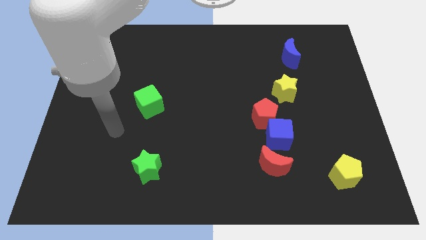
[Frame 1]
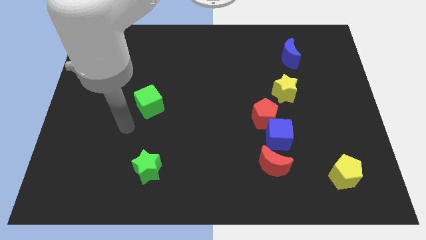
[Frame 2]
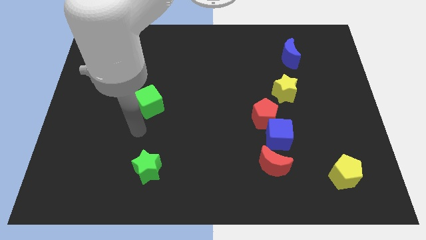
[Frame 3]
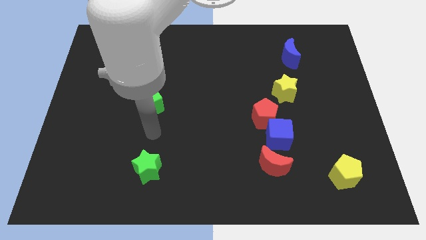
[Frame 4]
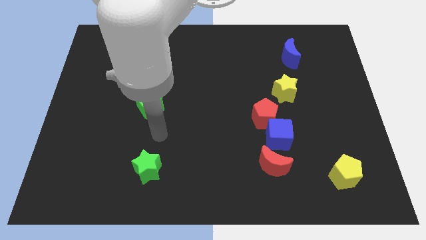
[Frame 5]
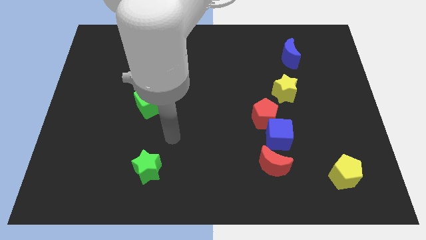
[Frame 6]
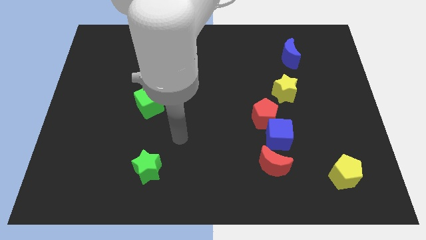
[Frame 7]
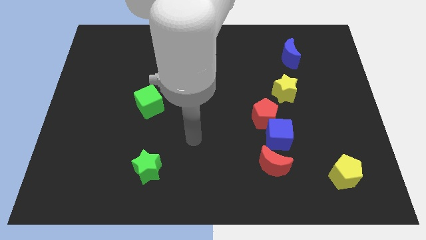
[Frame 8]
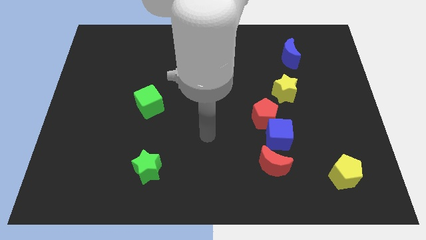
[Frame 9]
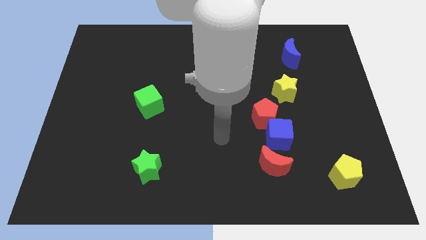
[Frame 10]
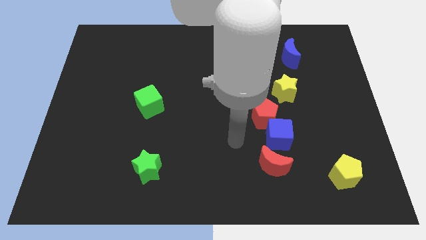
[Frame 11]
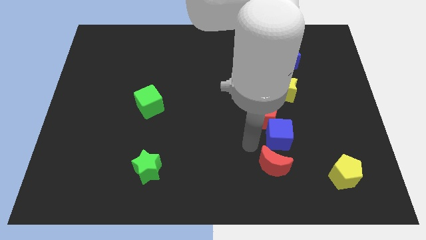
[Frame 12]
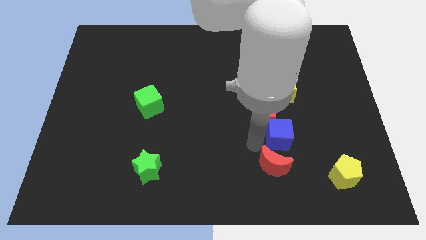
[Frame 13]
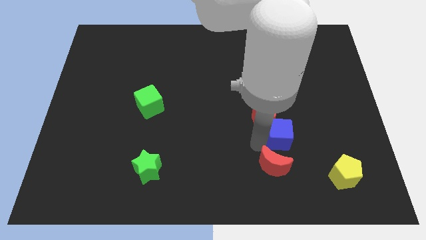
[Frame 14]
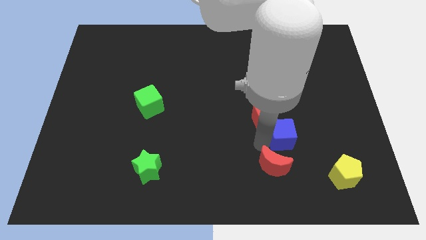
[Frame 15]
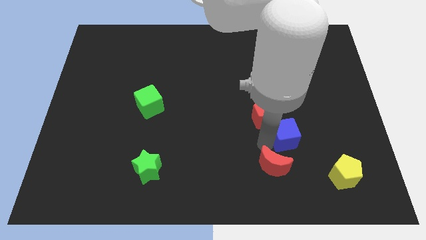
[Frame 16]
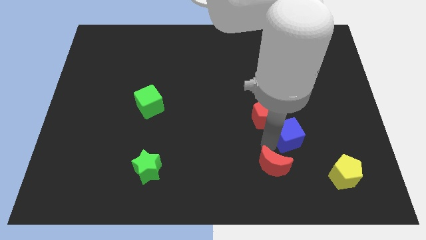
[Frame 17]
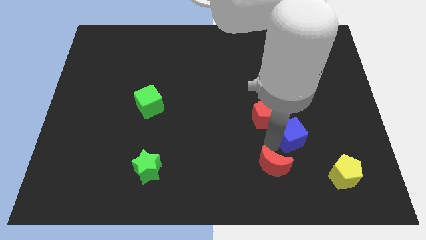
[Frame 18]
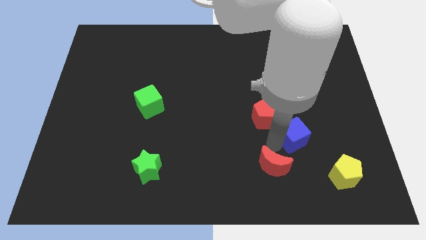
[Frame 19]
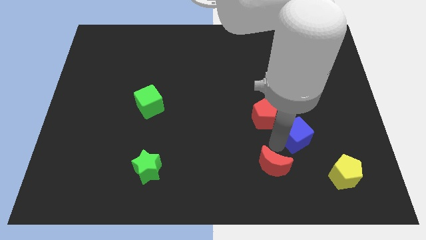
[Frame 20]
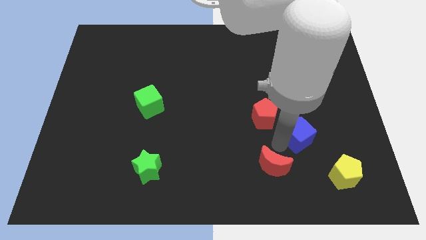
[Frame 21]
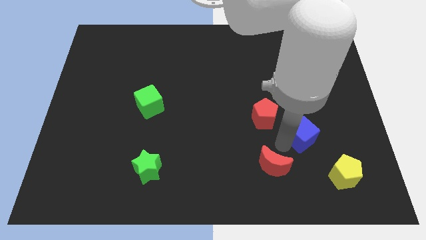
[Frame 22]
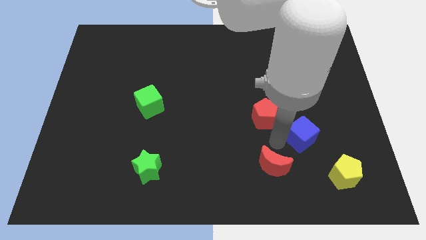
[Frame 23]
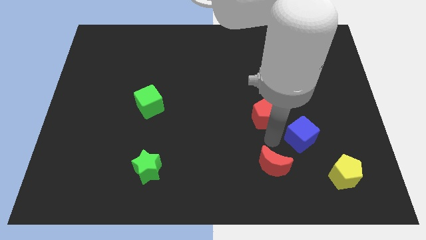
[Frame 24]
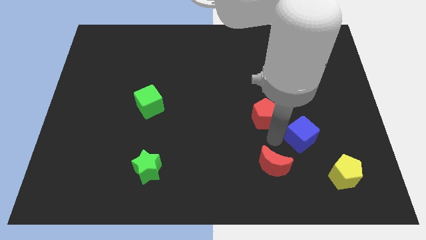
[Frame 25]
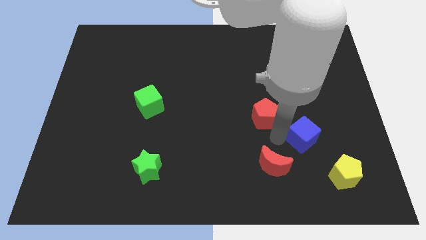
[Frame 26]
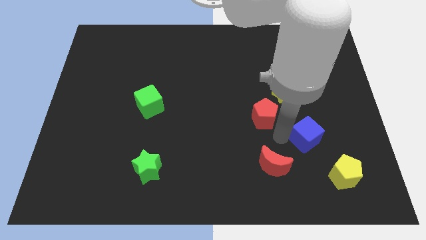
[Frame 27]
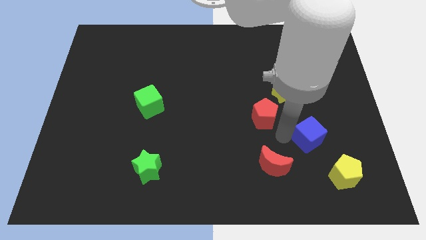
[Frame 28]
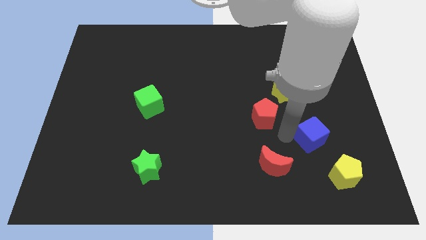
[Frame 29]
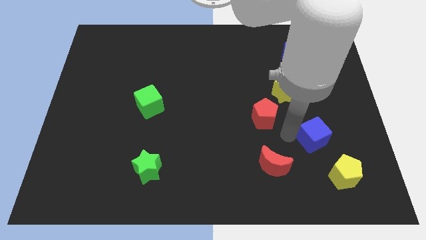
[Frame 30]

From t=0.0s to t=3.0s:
pull the blue cube apart from the red pentagon and red moon

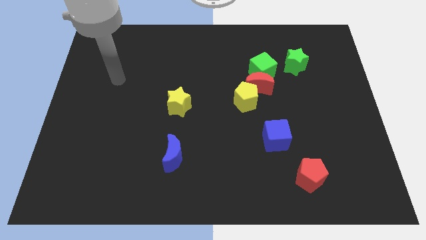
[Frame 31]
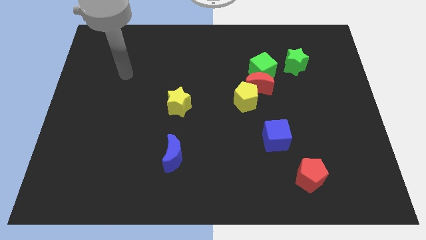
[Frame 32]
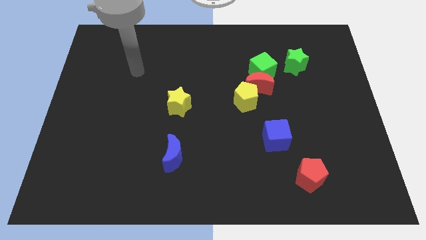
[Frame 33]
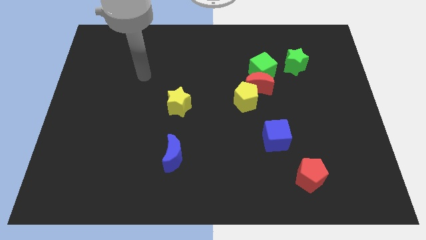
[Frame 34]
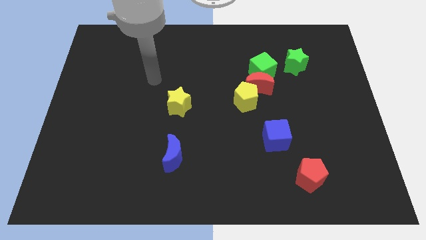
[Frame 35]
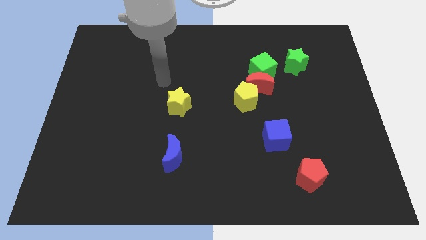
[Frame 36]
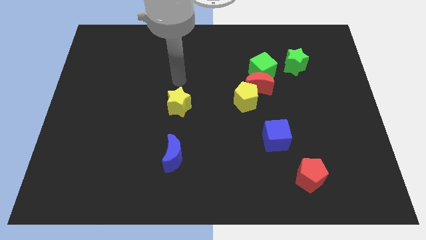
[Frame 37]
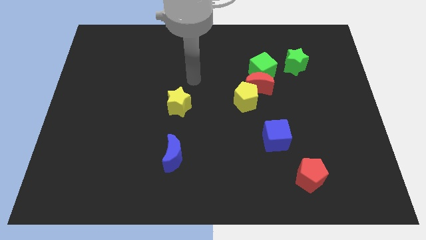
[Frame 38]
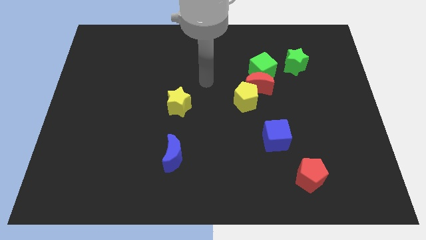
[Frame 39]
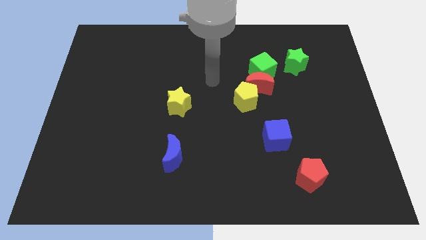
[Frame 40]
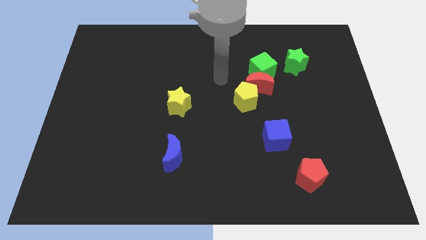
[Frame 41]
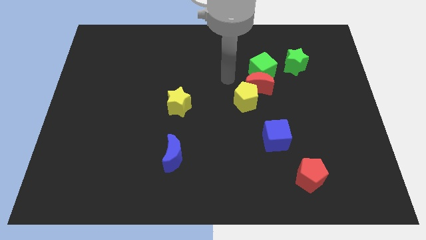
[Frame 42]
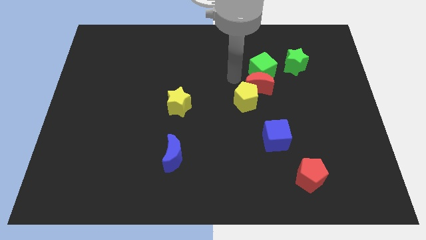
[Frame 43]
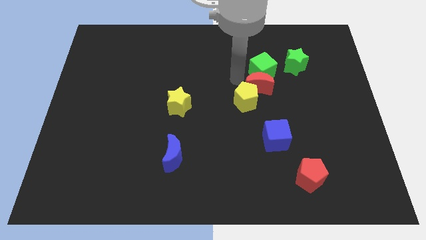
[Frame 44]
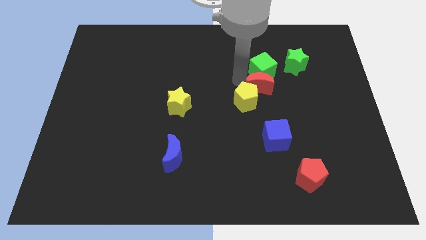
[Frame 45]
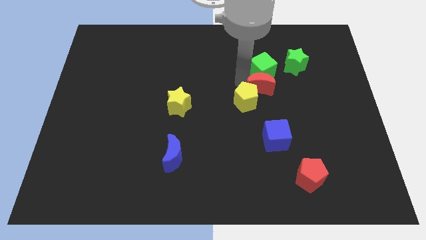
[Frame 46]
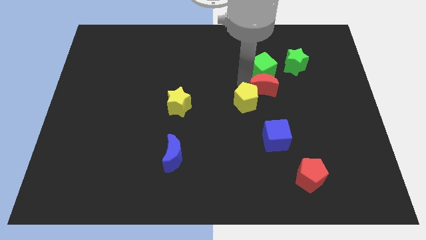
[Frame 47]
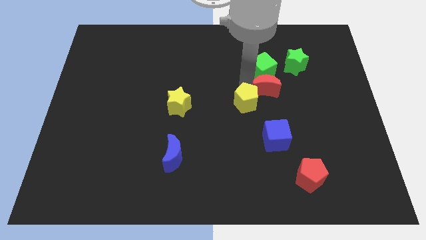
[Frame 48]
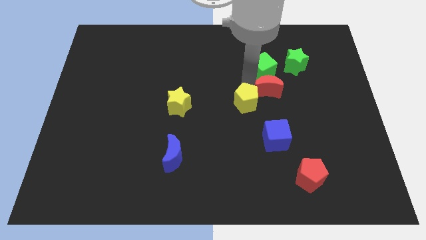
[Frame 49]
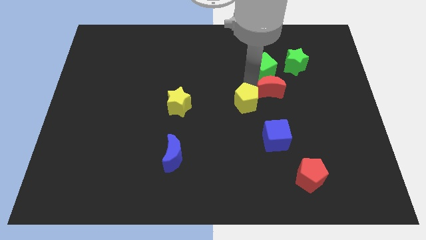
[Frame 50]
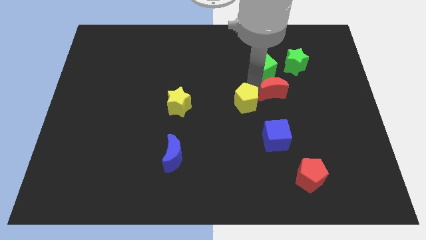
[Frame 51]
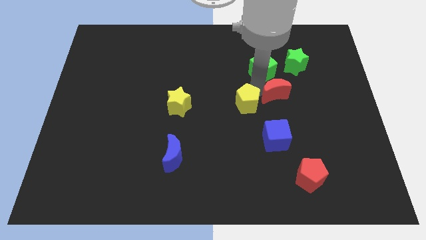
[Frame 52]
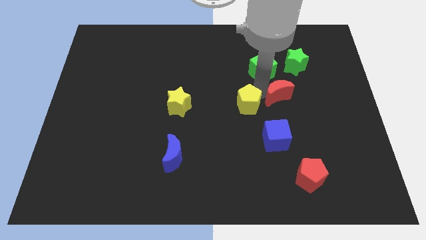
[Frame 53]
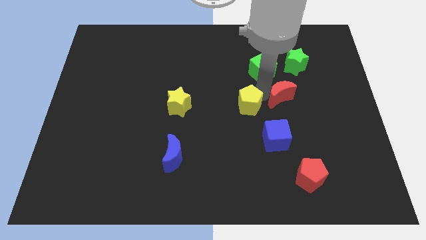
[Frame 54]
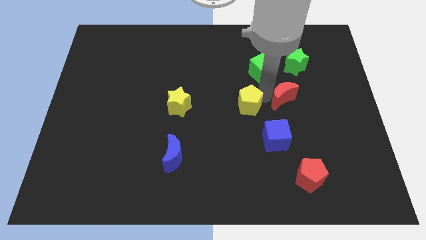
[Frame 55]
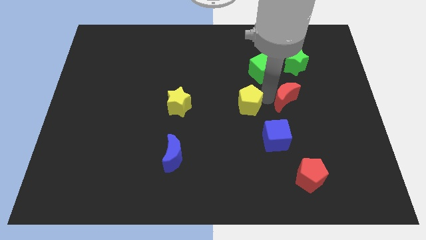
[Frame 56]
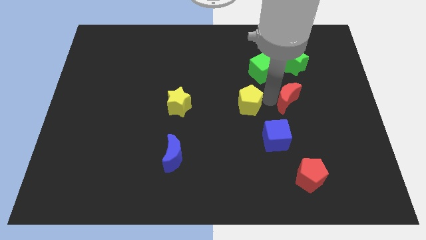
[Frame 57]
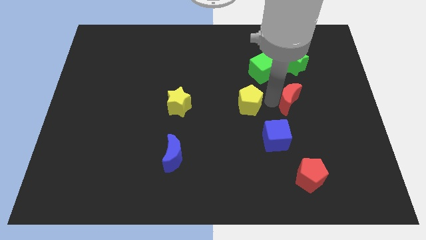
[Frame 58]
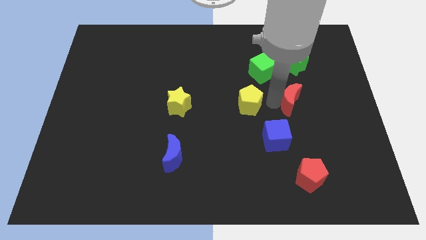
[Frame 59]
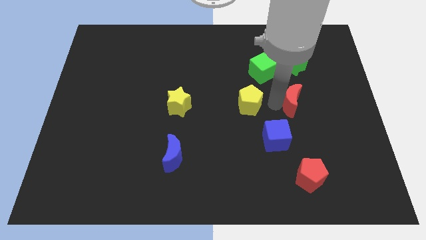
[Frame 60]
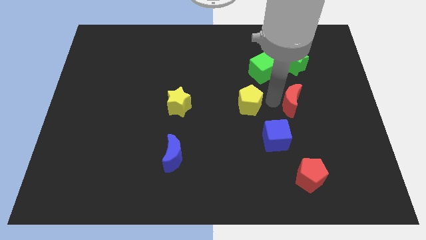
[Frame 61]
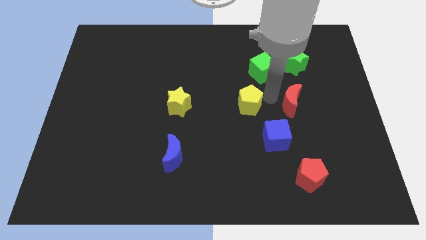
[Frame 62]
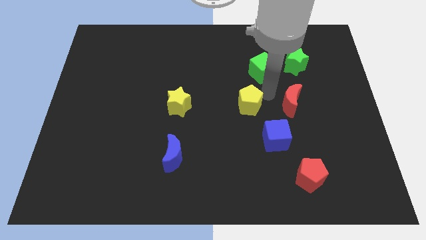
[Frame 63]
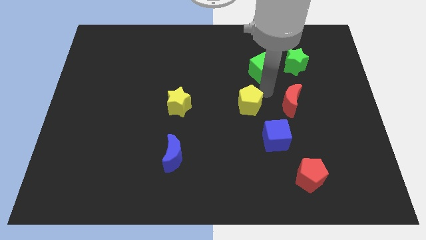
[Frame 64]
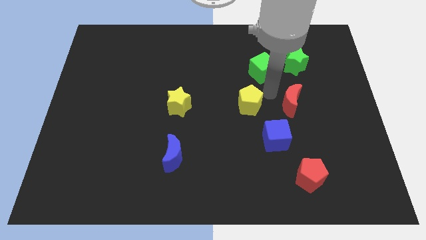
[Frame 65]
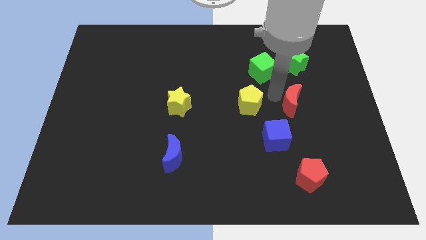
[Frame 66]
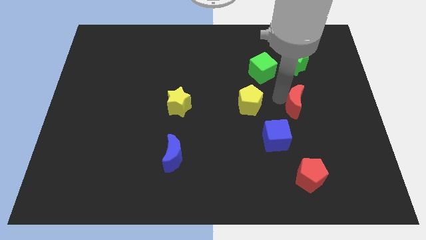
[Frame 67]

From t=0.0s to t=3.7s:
move the red moon away from the green cube and yellow pentagon

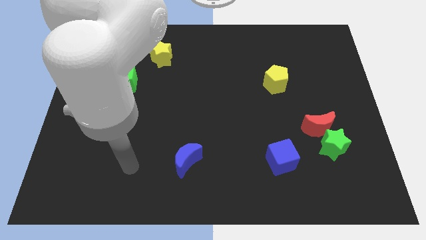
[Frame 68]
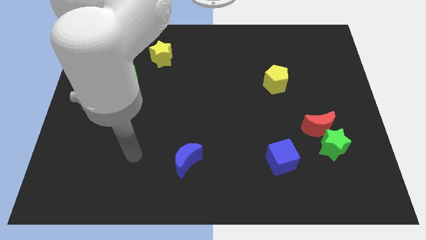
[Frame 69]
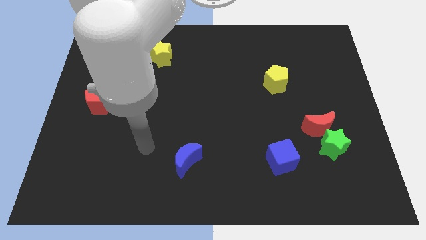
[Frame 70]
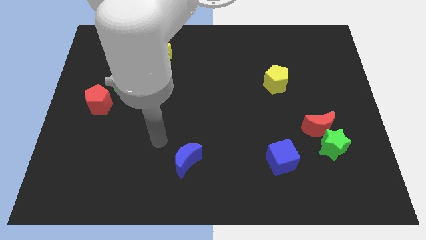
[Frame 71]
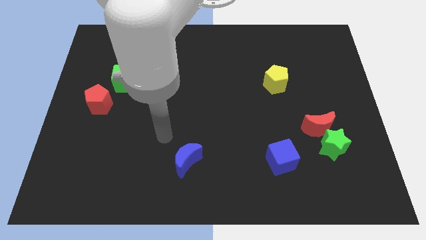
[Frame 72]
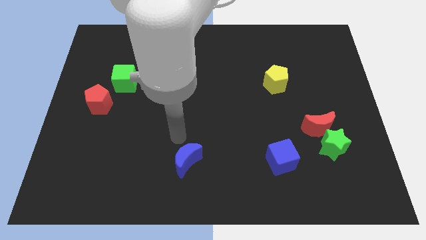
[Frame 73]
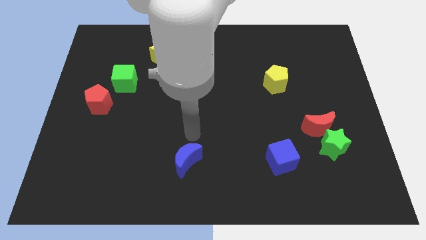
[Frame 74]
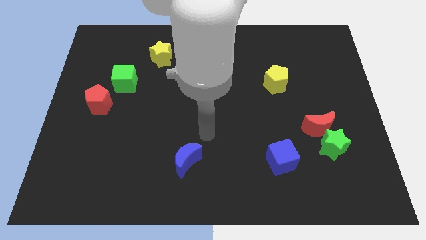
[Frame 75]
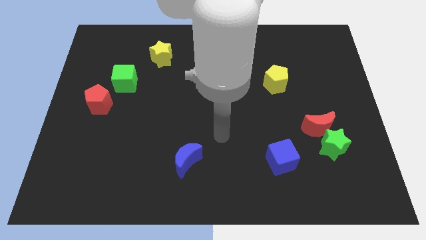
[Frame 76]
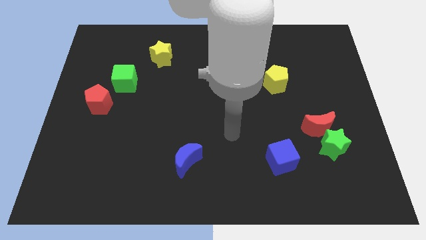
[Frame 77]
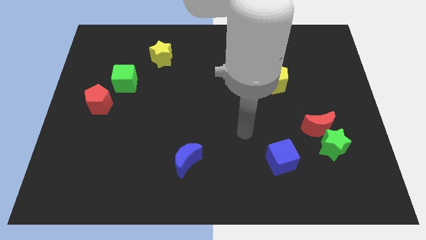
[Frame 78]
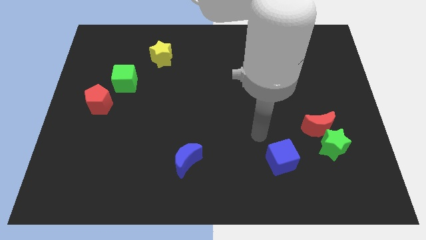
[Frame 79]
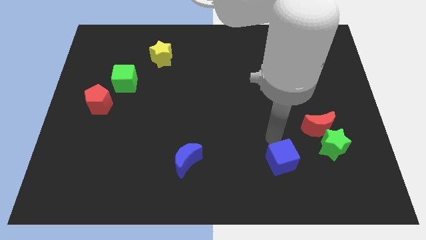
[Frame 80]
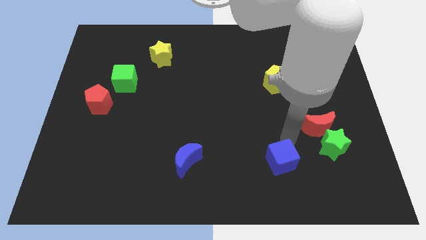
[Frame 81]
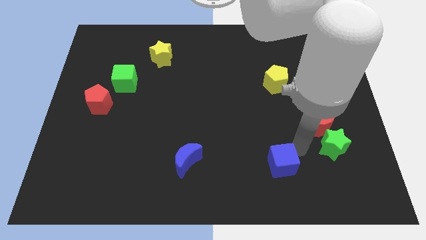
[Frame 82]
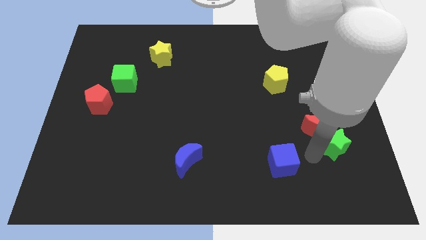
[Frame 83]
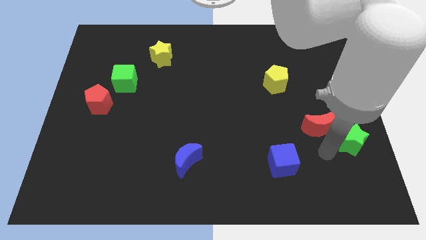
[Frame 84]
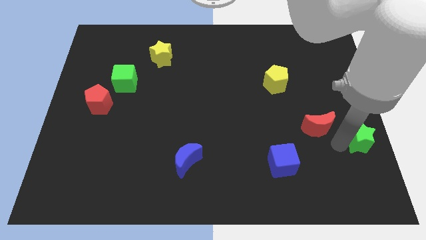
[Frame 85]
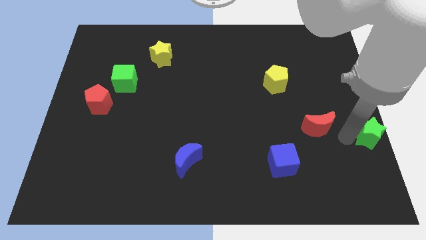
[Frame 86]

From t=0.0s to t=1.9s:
move the red moon away from the green star

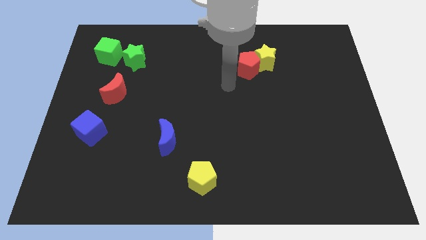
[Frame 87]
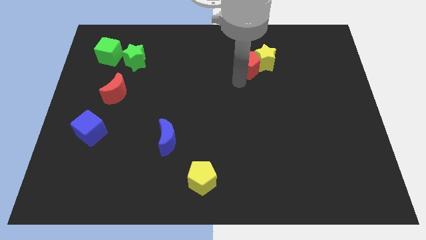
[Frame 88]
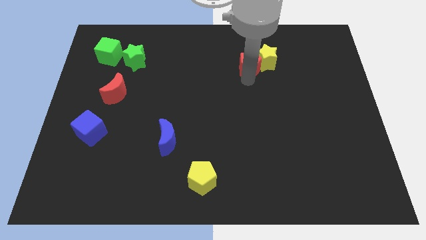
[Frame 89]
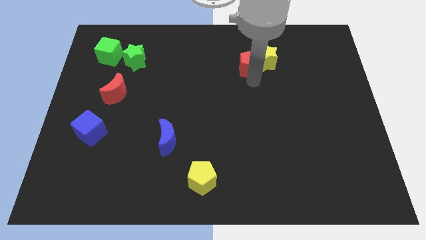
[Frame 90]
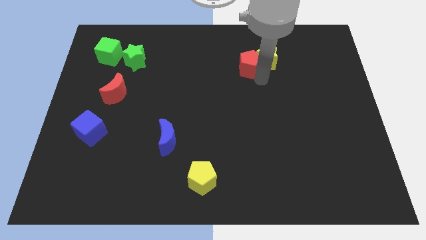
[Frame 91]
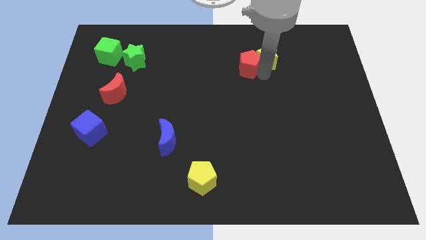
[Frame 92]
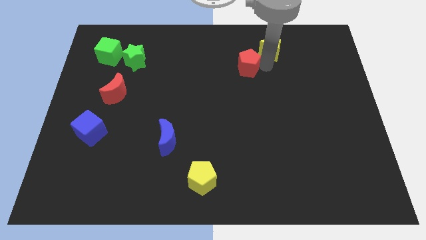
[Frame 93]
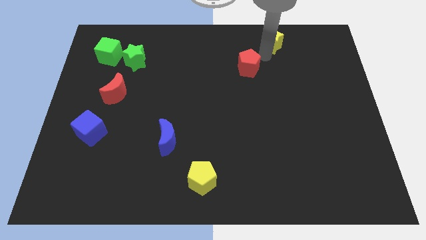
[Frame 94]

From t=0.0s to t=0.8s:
pull the red pentagon apart from the yellow star
